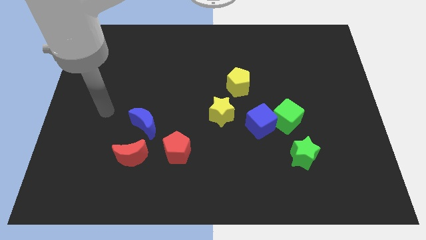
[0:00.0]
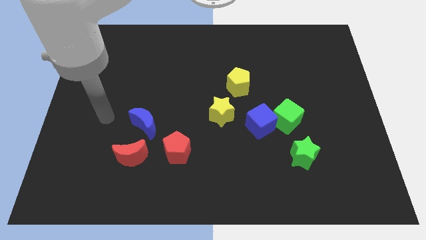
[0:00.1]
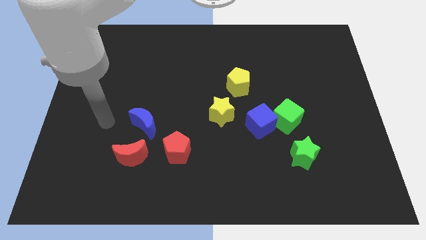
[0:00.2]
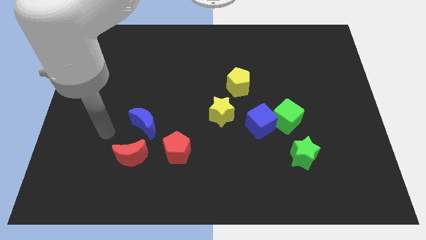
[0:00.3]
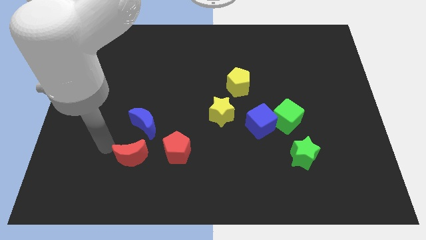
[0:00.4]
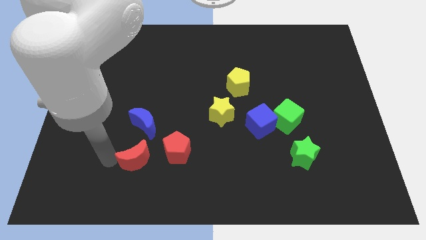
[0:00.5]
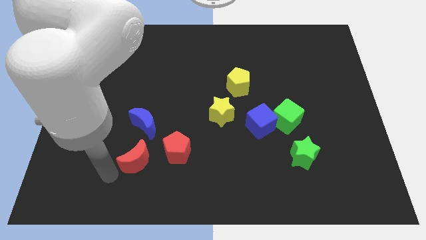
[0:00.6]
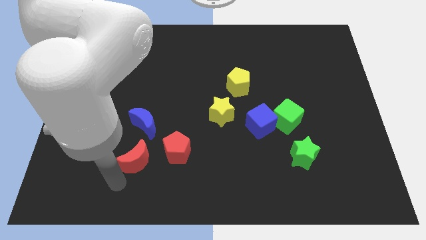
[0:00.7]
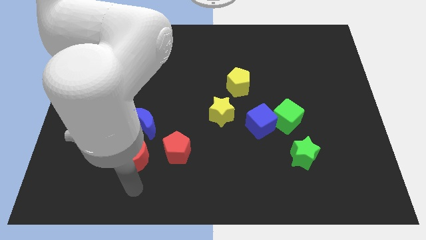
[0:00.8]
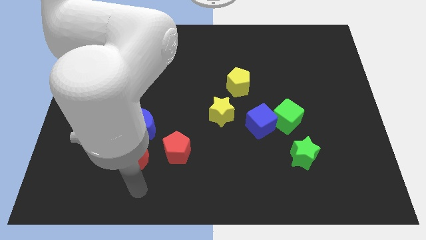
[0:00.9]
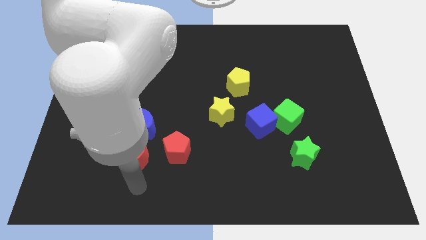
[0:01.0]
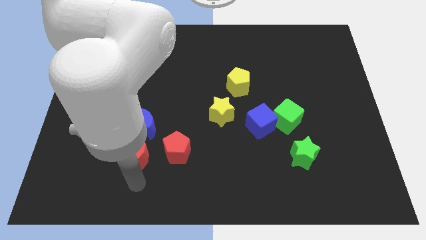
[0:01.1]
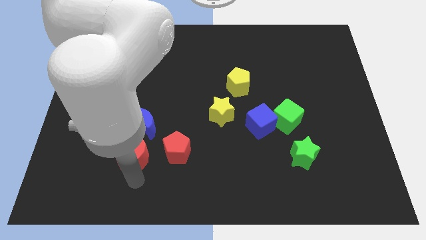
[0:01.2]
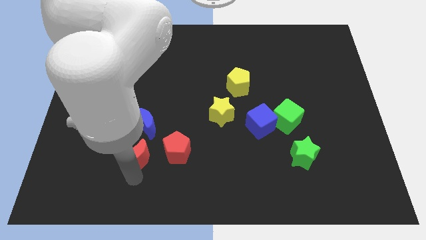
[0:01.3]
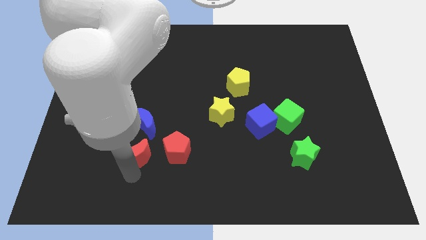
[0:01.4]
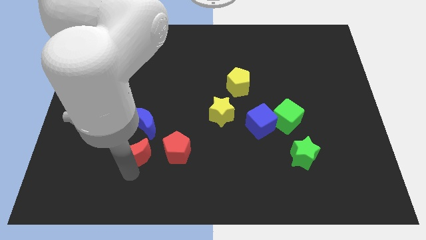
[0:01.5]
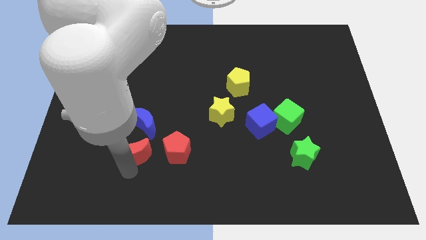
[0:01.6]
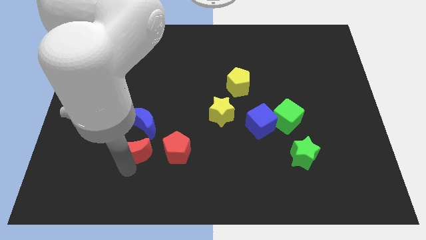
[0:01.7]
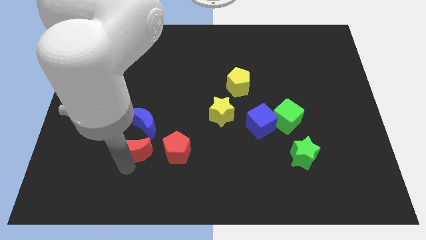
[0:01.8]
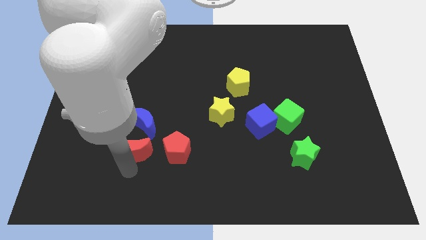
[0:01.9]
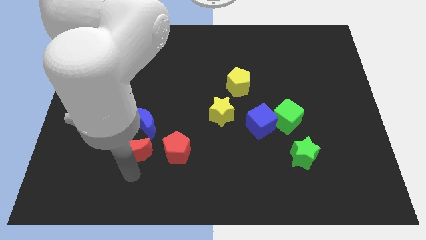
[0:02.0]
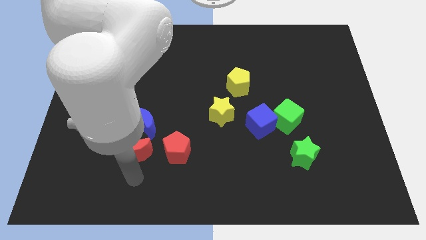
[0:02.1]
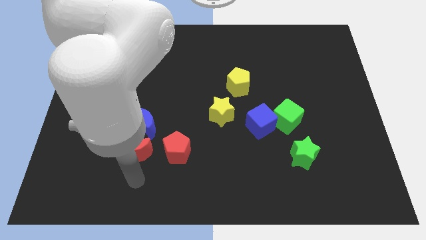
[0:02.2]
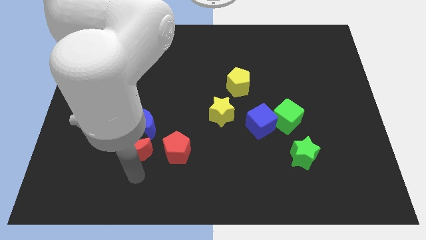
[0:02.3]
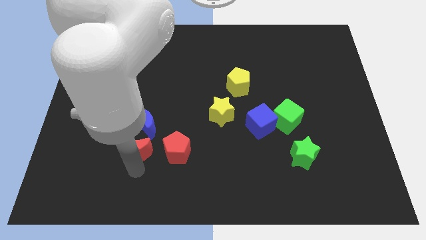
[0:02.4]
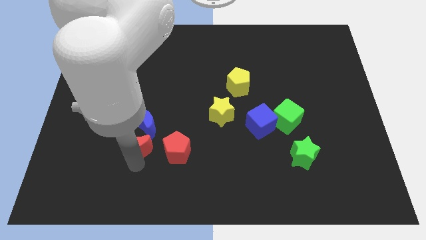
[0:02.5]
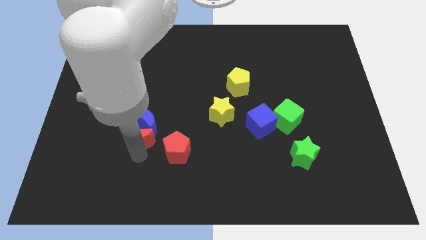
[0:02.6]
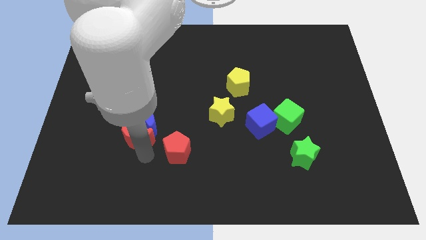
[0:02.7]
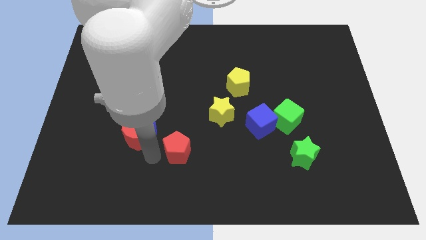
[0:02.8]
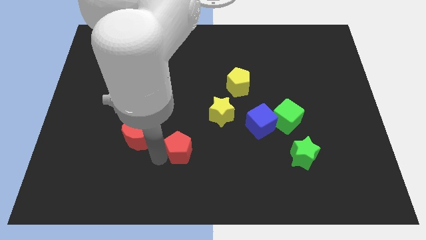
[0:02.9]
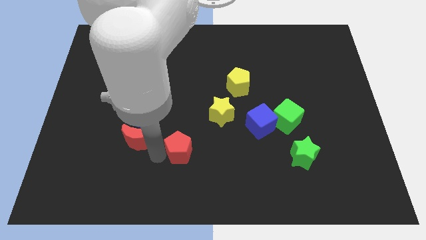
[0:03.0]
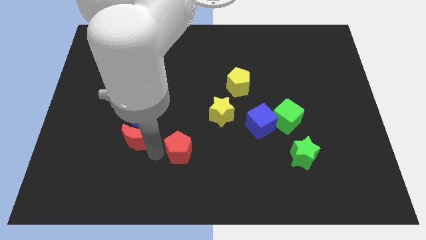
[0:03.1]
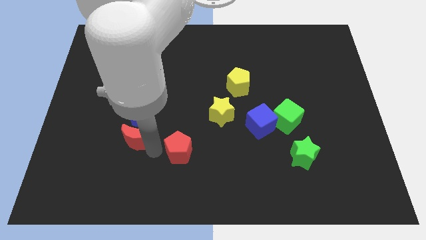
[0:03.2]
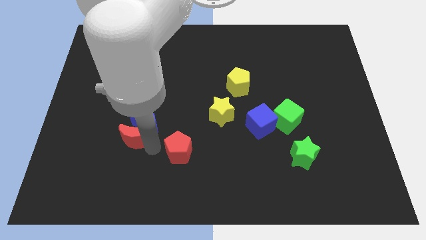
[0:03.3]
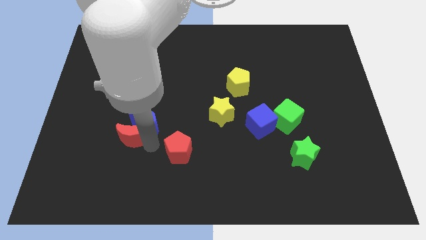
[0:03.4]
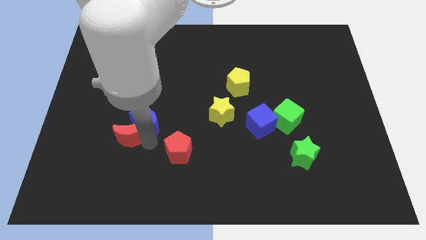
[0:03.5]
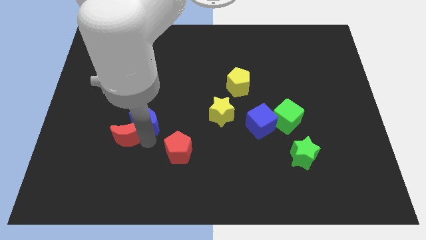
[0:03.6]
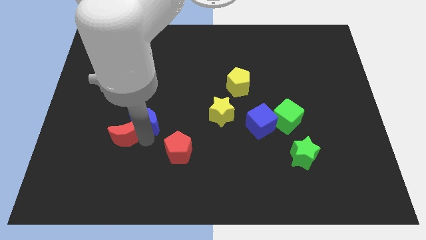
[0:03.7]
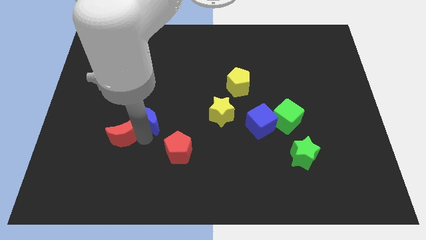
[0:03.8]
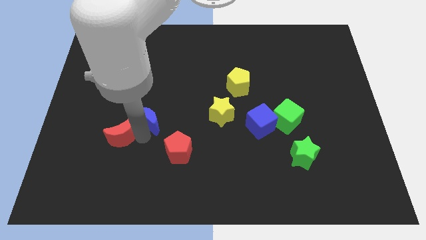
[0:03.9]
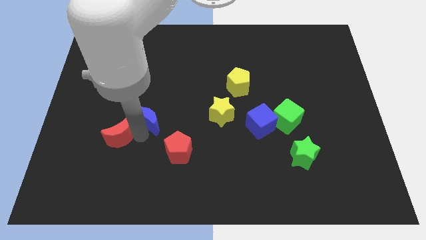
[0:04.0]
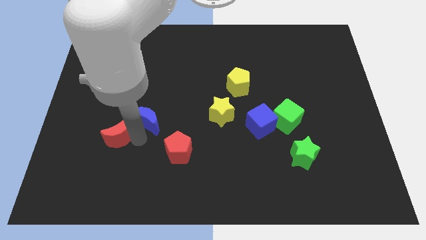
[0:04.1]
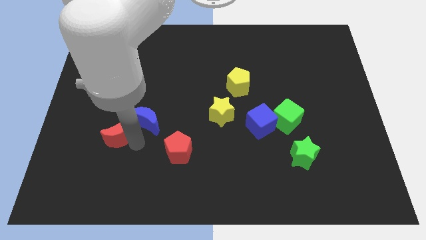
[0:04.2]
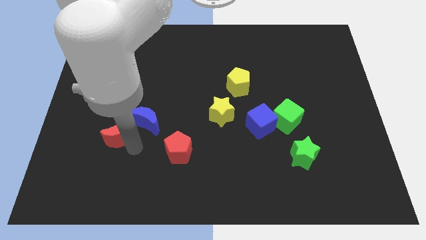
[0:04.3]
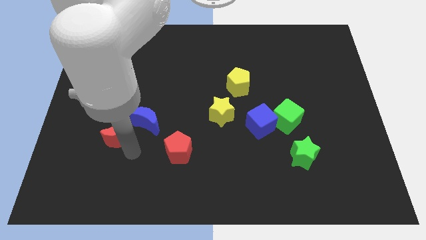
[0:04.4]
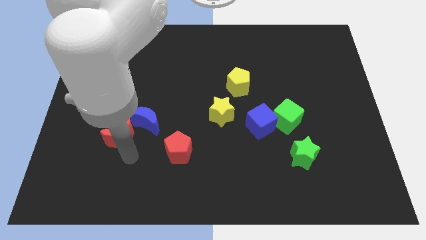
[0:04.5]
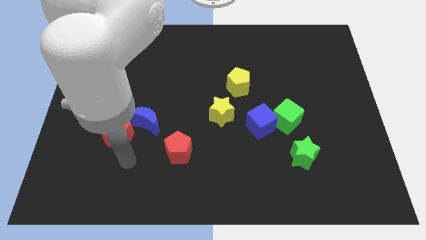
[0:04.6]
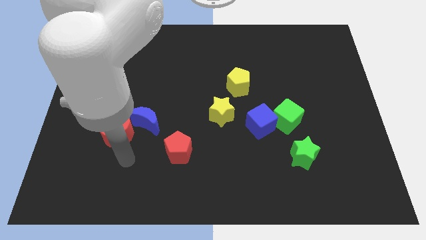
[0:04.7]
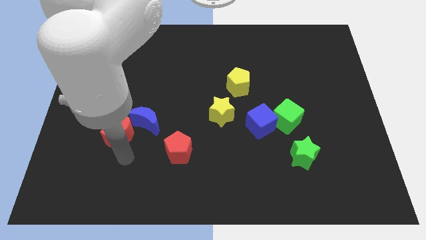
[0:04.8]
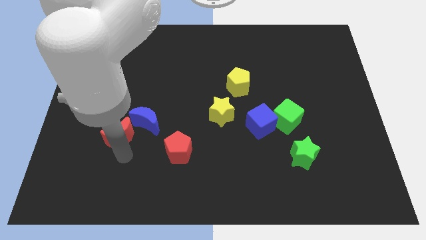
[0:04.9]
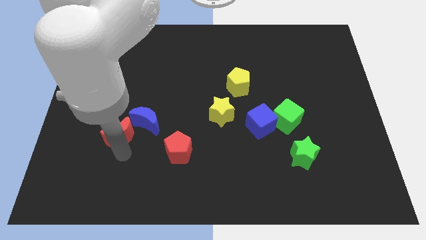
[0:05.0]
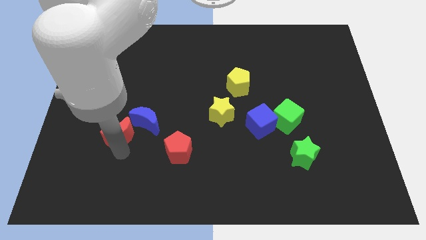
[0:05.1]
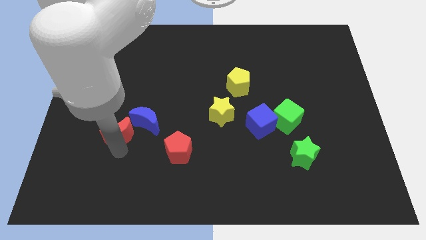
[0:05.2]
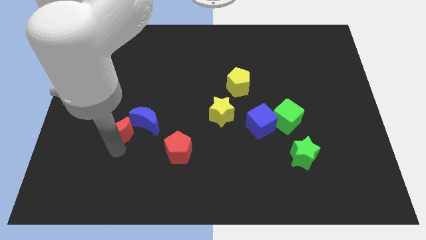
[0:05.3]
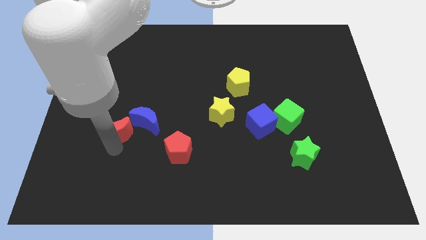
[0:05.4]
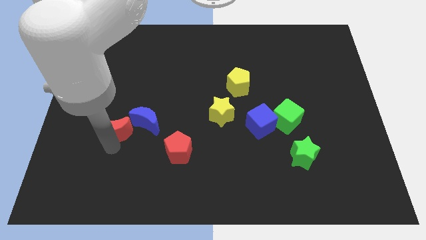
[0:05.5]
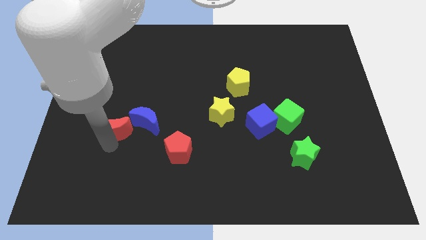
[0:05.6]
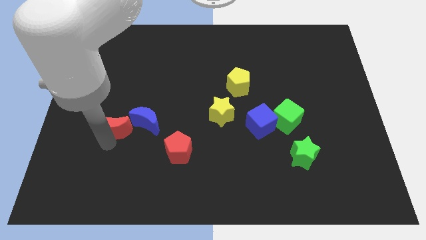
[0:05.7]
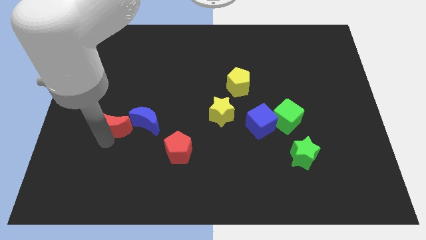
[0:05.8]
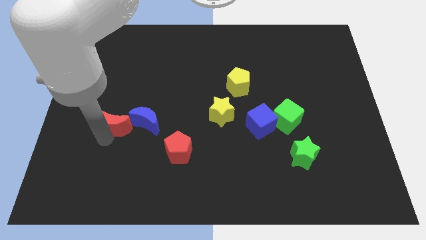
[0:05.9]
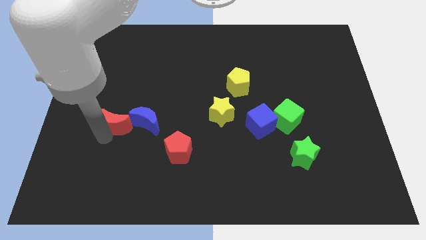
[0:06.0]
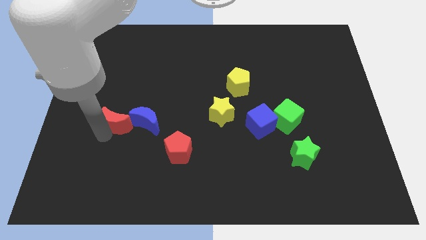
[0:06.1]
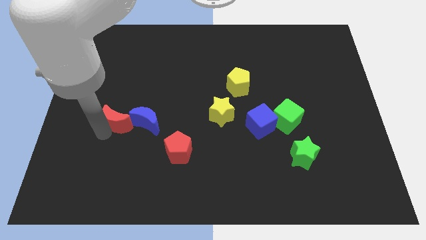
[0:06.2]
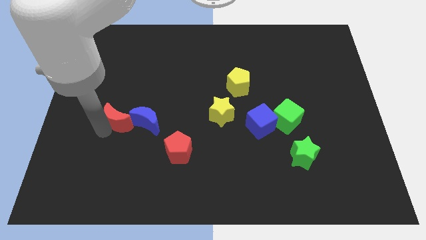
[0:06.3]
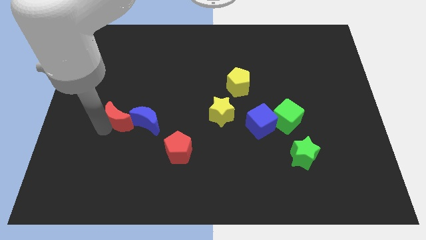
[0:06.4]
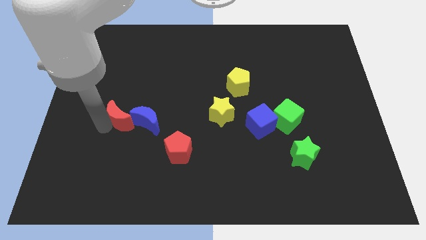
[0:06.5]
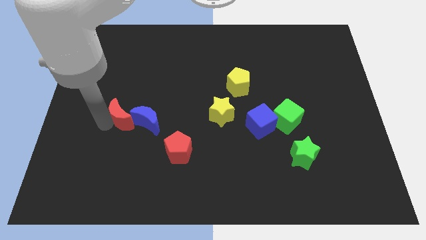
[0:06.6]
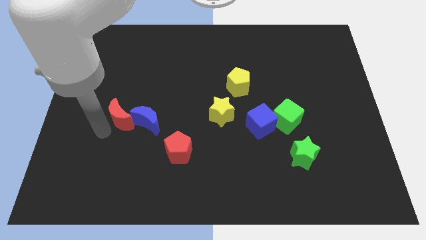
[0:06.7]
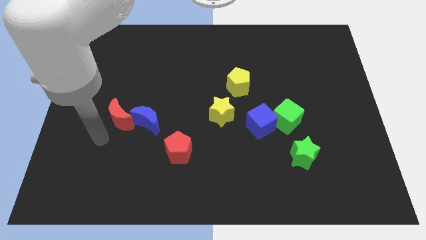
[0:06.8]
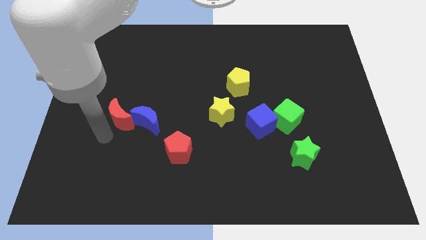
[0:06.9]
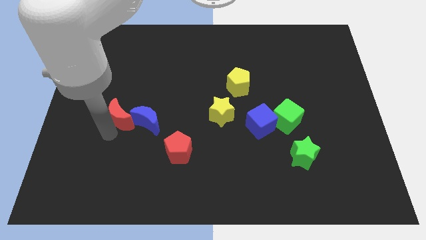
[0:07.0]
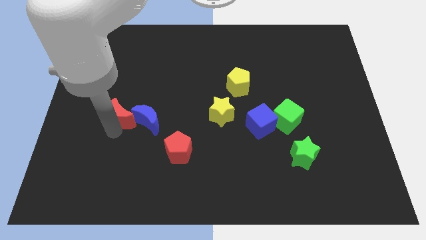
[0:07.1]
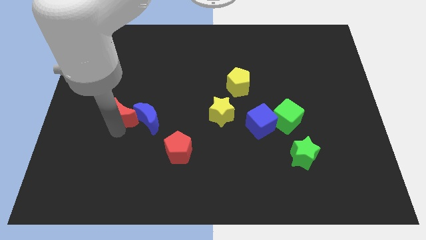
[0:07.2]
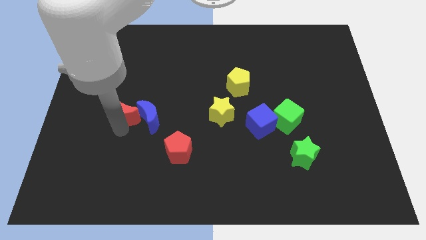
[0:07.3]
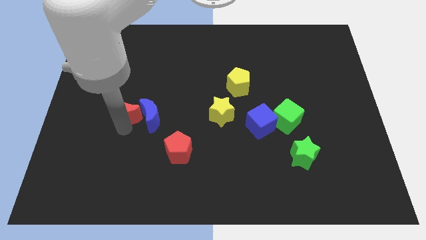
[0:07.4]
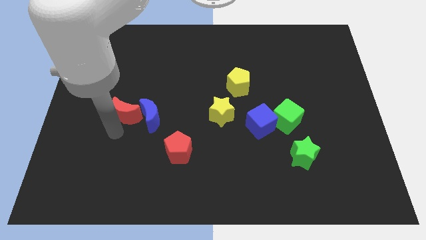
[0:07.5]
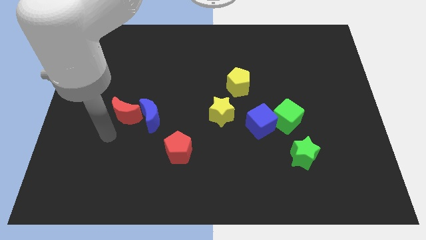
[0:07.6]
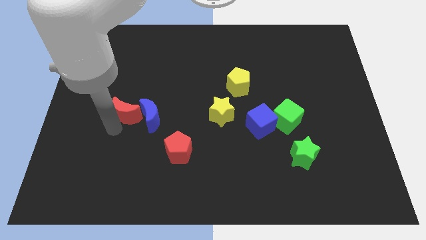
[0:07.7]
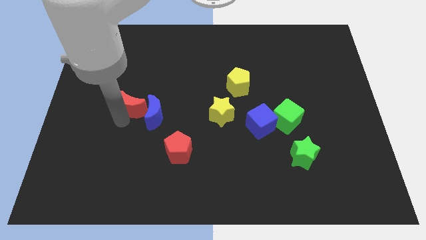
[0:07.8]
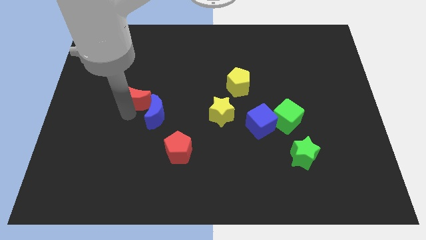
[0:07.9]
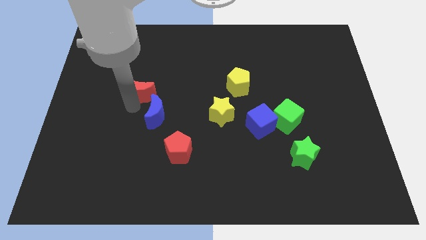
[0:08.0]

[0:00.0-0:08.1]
slide the red moon to the top side of the blue moon
